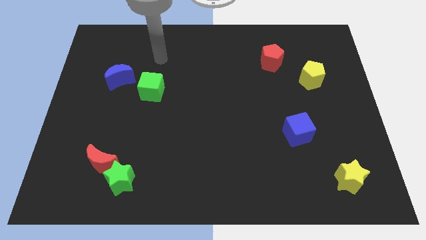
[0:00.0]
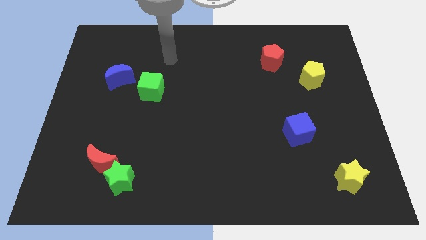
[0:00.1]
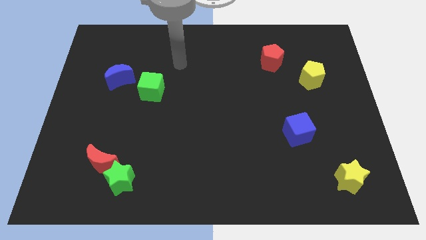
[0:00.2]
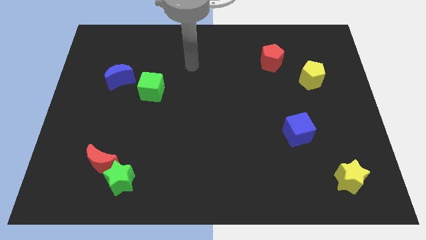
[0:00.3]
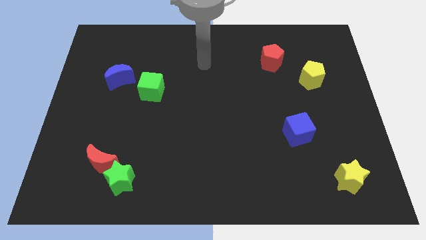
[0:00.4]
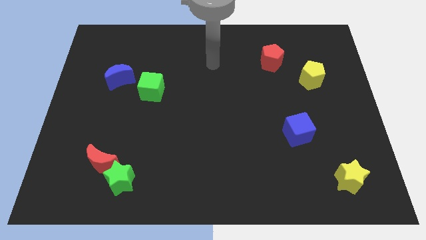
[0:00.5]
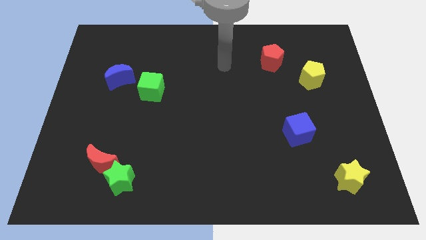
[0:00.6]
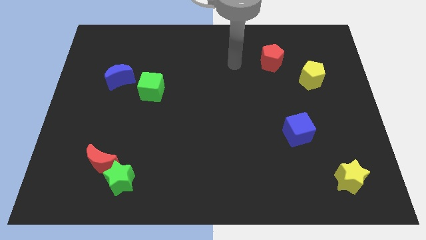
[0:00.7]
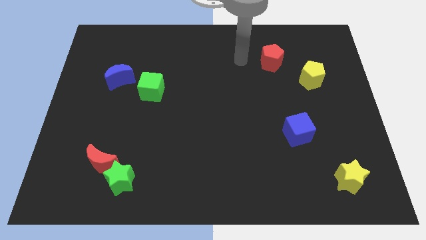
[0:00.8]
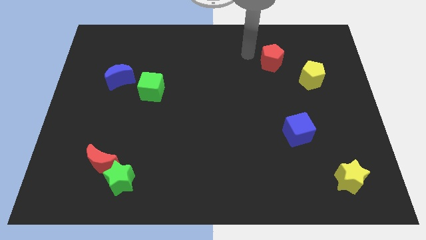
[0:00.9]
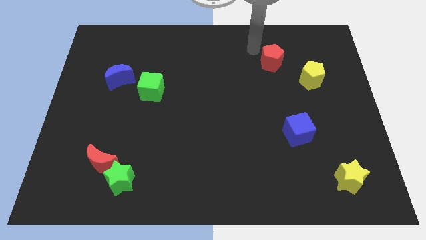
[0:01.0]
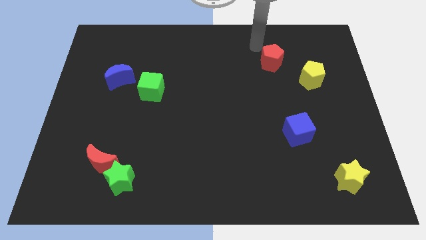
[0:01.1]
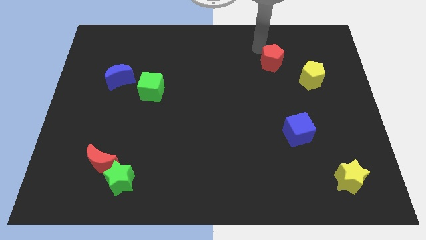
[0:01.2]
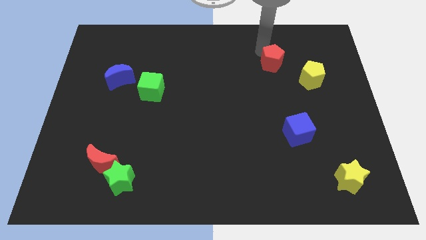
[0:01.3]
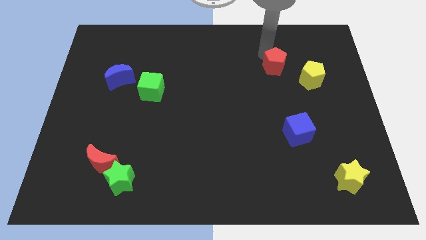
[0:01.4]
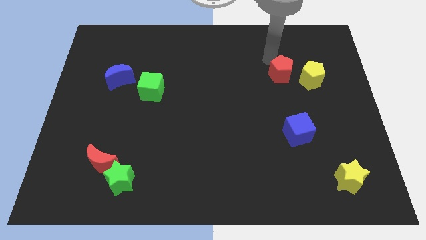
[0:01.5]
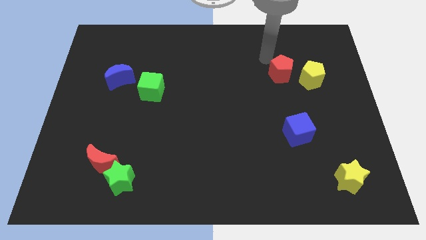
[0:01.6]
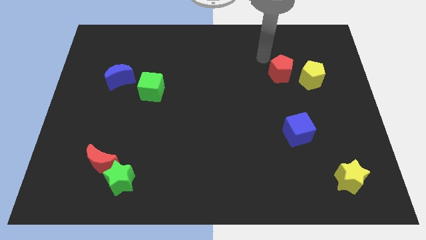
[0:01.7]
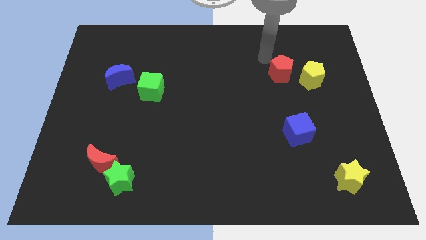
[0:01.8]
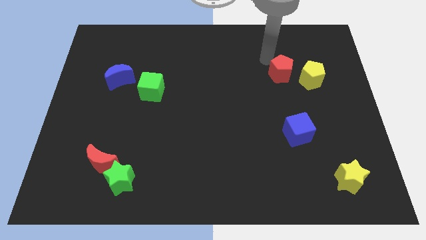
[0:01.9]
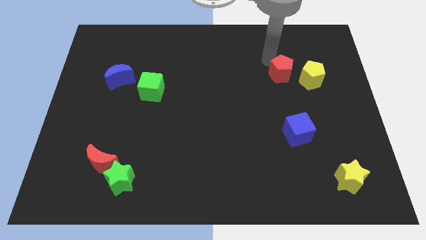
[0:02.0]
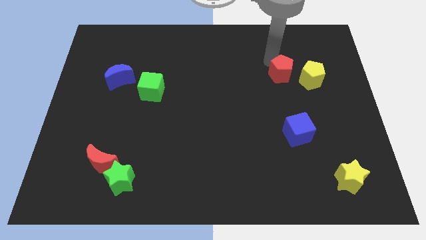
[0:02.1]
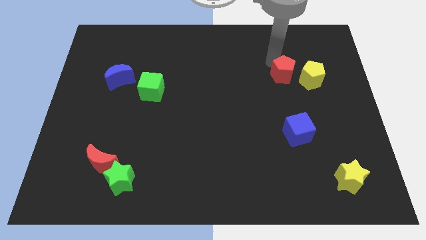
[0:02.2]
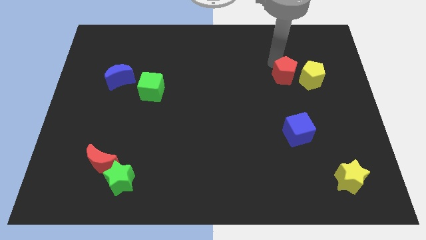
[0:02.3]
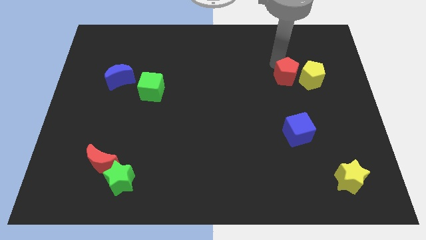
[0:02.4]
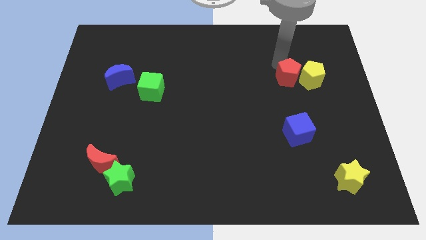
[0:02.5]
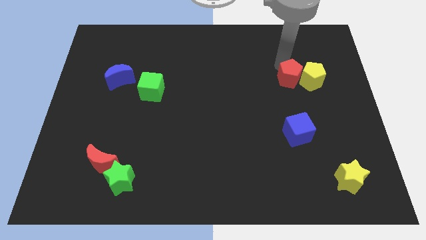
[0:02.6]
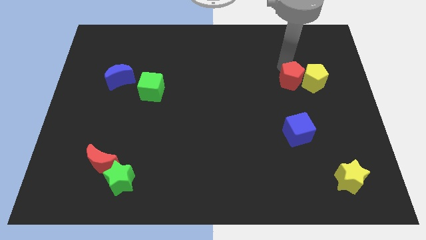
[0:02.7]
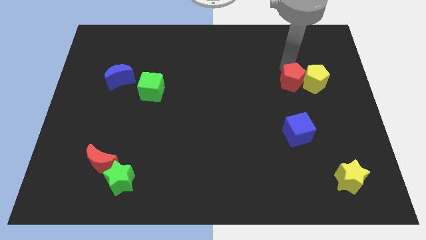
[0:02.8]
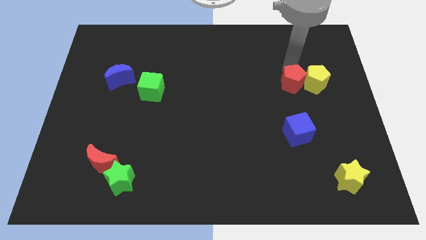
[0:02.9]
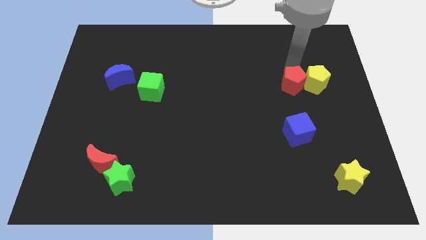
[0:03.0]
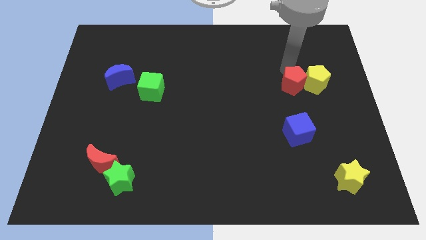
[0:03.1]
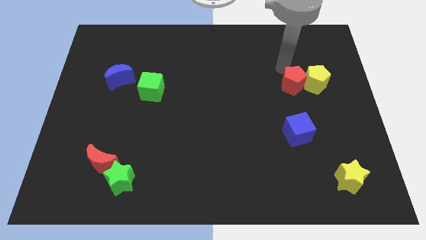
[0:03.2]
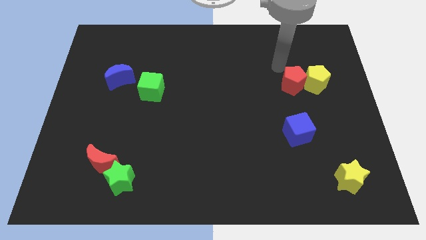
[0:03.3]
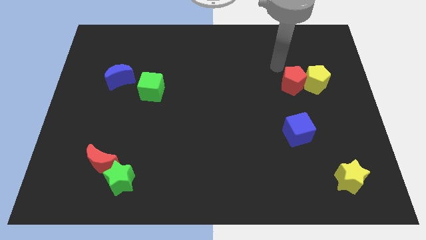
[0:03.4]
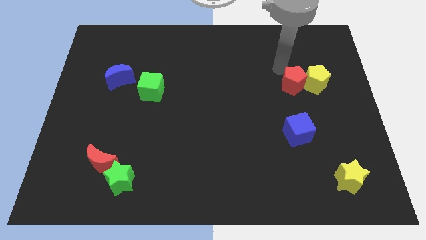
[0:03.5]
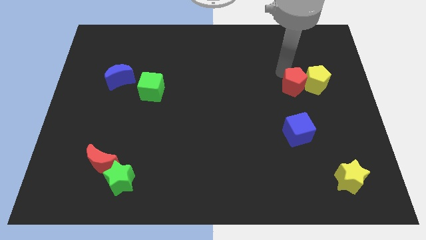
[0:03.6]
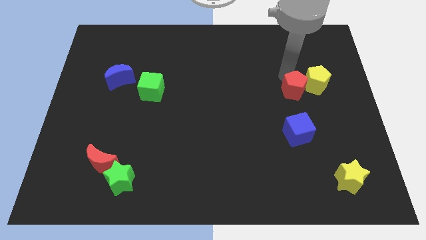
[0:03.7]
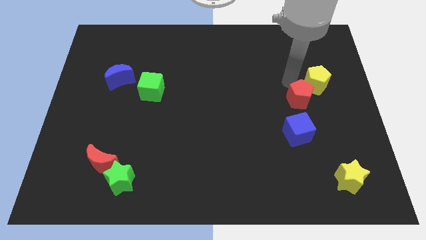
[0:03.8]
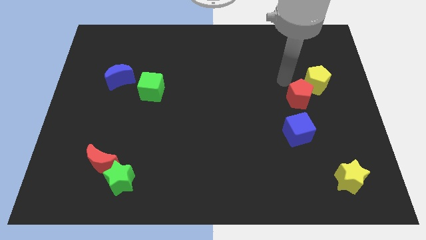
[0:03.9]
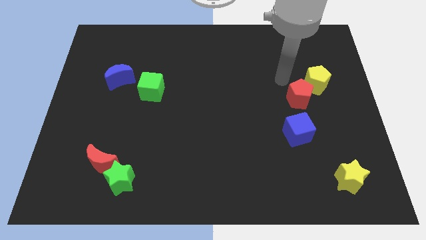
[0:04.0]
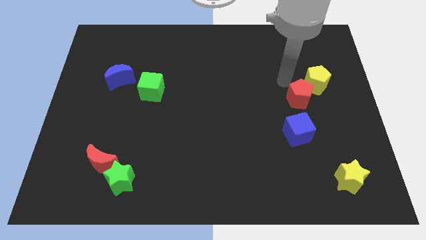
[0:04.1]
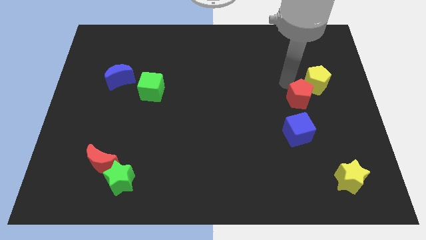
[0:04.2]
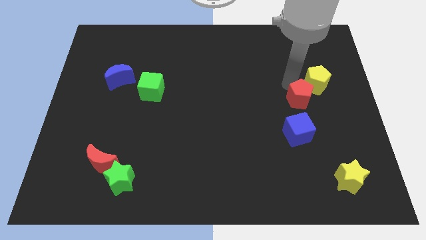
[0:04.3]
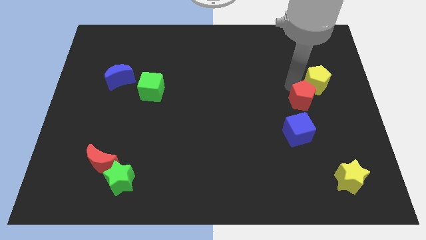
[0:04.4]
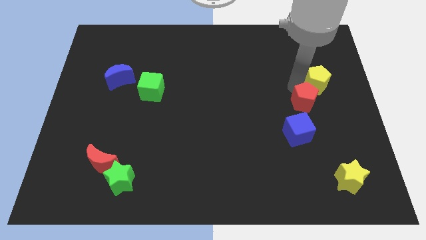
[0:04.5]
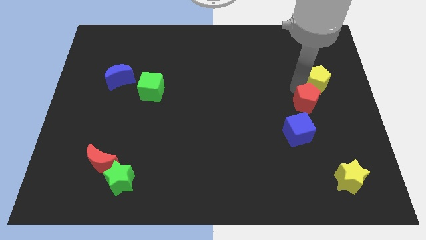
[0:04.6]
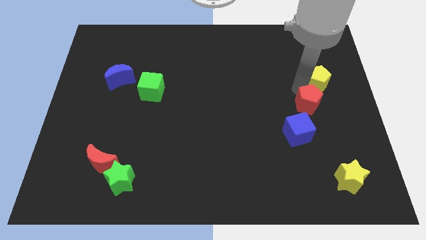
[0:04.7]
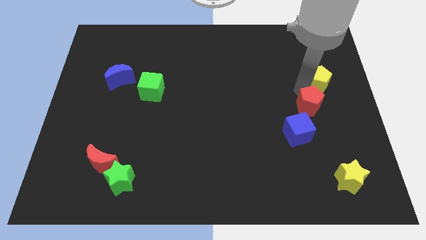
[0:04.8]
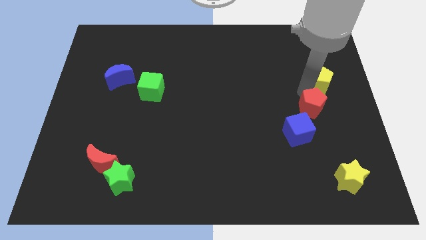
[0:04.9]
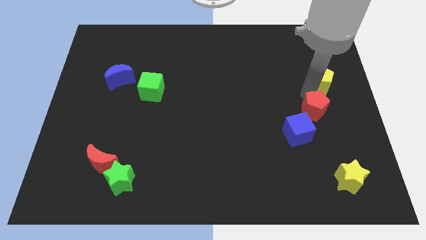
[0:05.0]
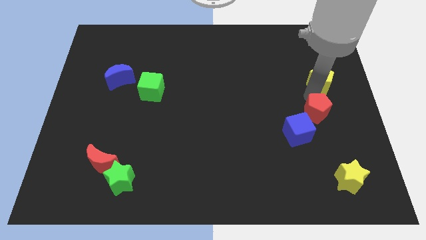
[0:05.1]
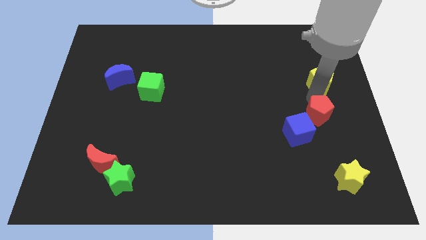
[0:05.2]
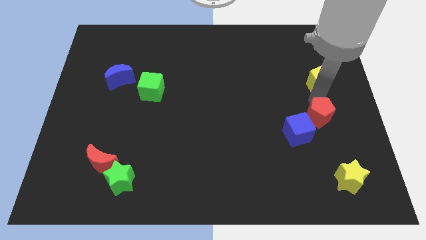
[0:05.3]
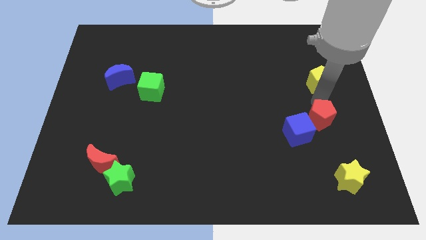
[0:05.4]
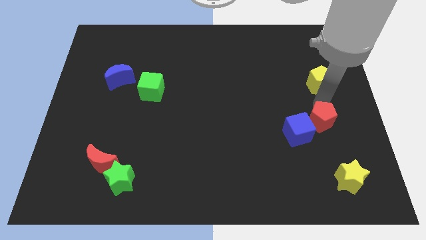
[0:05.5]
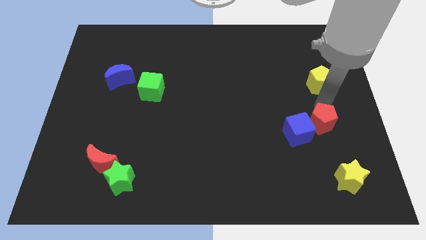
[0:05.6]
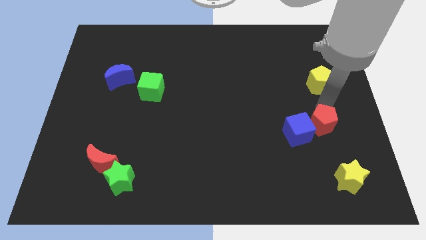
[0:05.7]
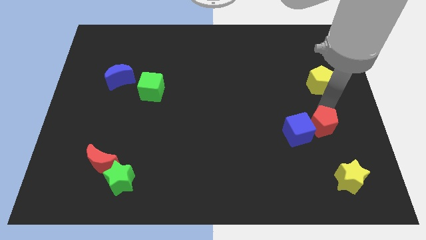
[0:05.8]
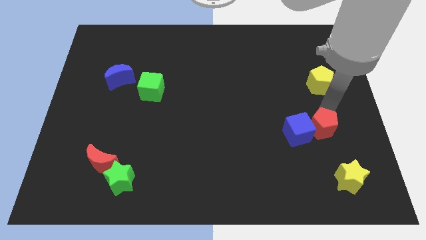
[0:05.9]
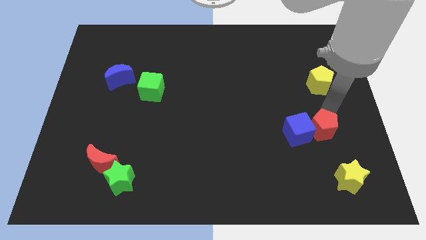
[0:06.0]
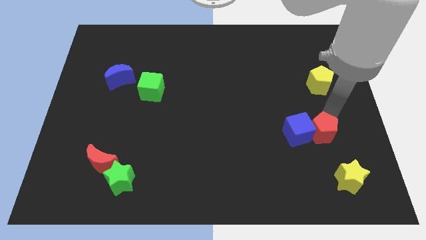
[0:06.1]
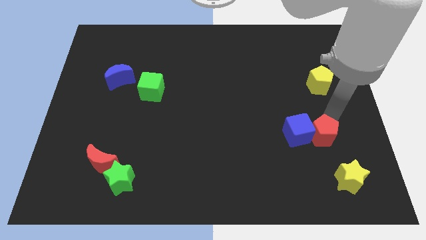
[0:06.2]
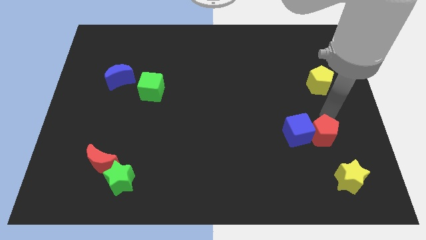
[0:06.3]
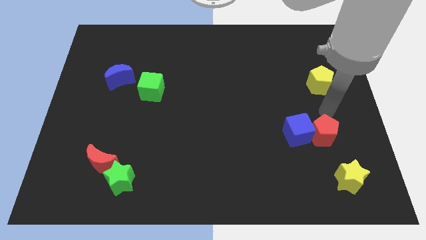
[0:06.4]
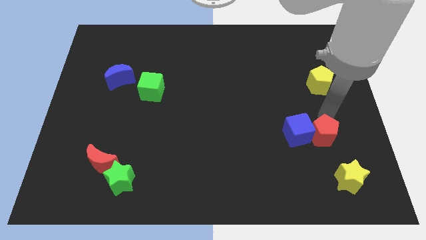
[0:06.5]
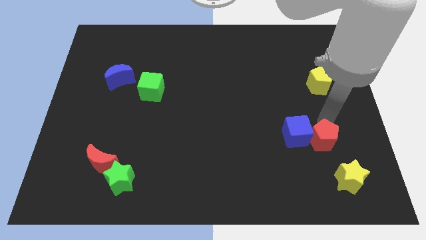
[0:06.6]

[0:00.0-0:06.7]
slide the red pentagon to the top left side of the yellow star
